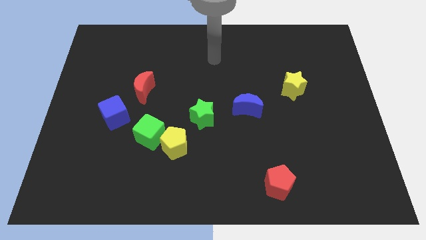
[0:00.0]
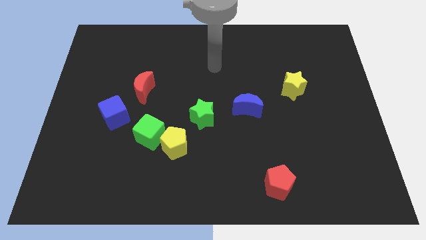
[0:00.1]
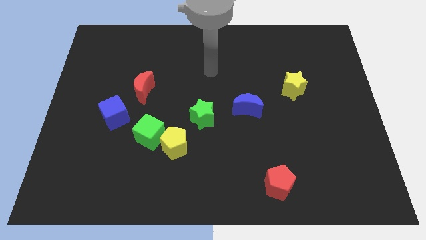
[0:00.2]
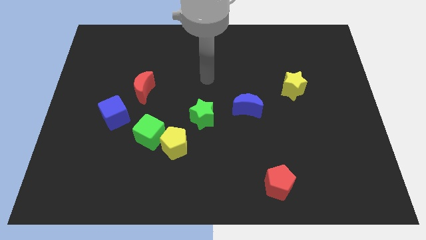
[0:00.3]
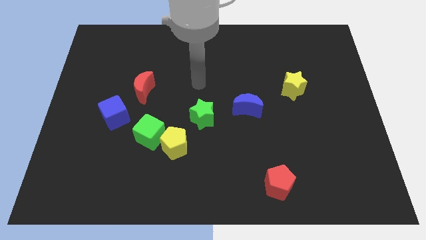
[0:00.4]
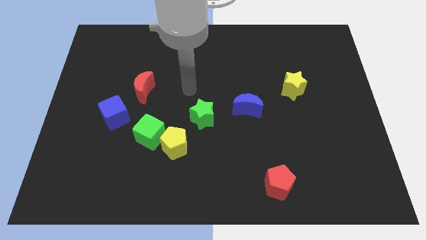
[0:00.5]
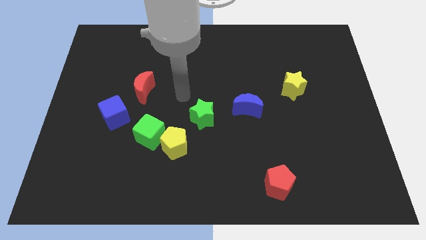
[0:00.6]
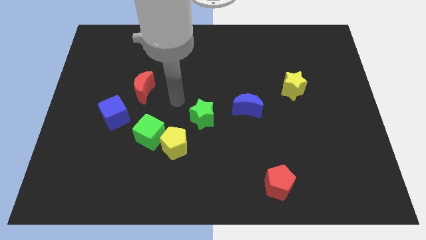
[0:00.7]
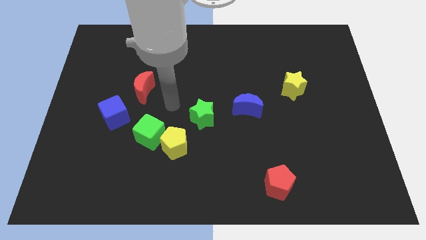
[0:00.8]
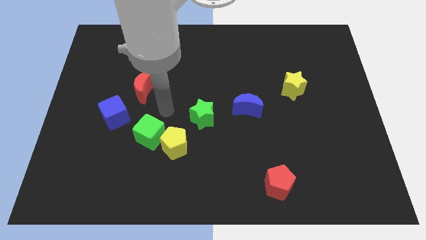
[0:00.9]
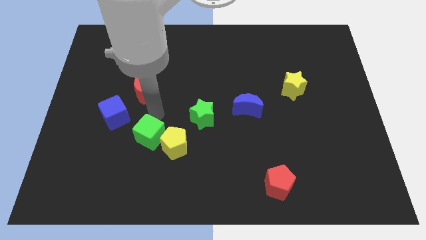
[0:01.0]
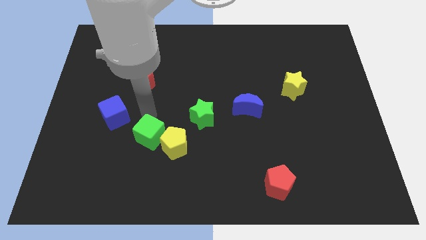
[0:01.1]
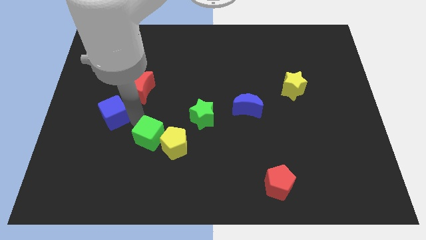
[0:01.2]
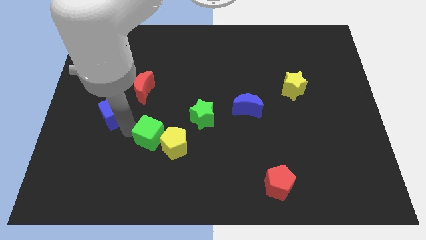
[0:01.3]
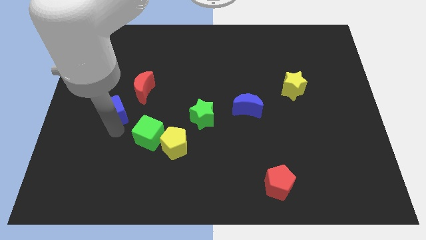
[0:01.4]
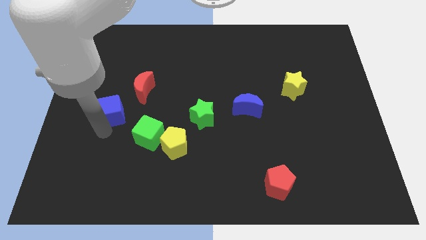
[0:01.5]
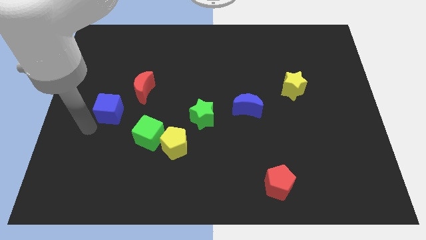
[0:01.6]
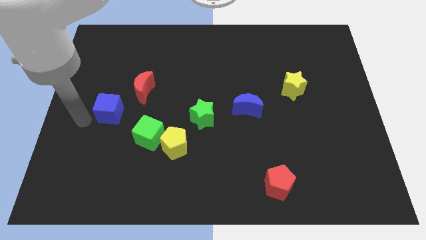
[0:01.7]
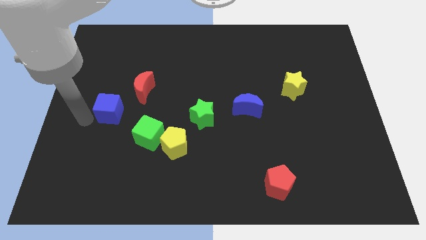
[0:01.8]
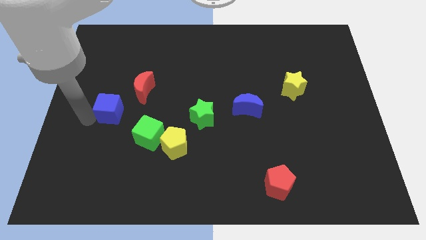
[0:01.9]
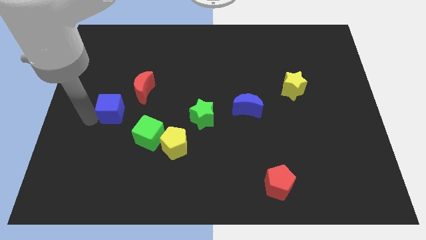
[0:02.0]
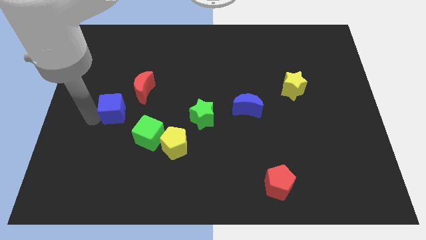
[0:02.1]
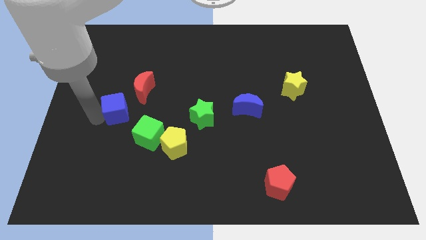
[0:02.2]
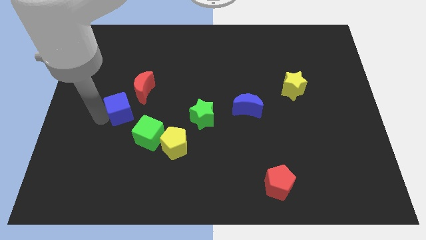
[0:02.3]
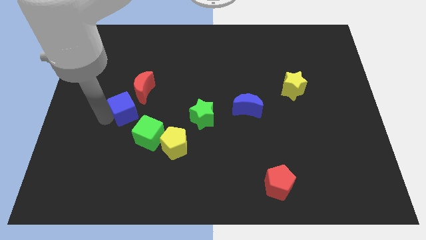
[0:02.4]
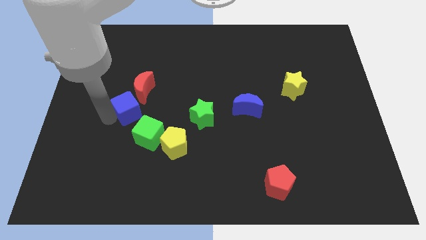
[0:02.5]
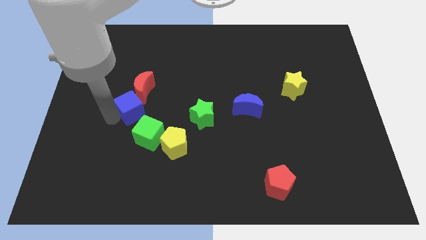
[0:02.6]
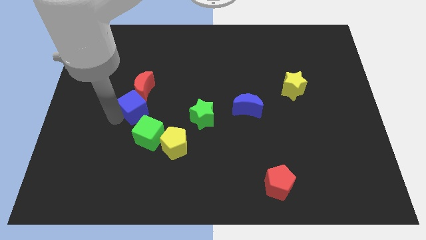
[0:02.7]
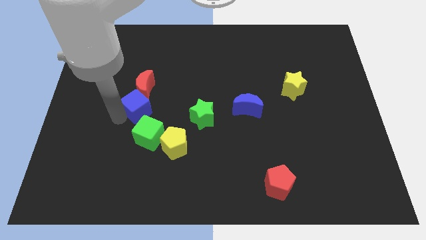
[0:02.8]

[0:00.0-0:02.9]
move the blue cube next to the red moon

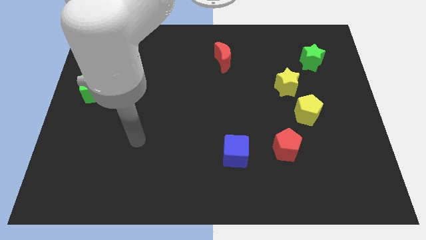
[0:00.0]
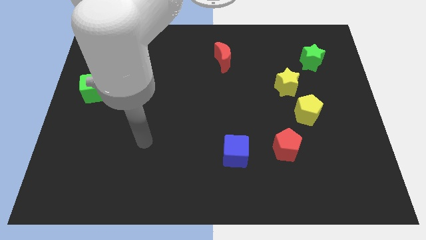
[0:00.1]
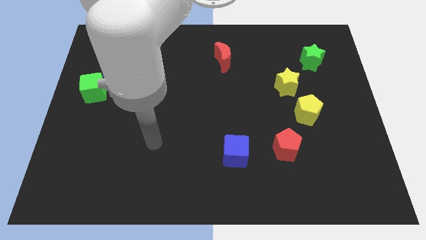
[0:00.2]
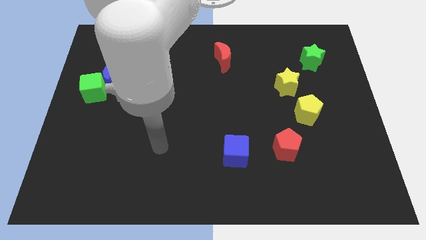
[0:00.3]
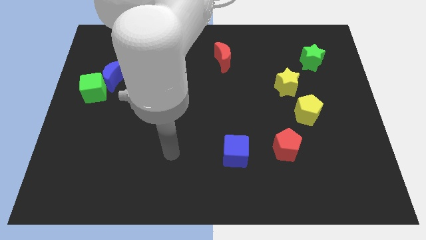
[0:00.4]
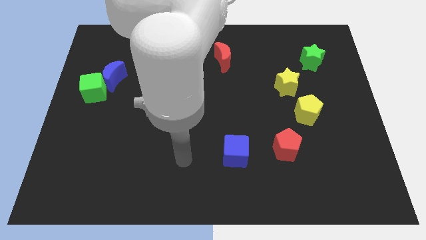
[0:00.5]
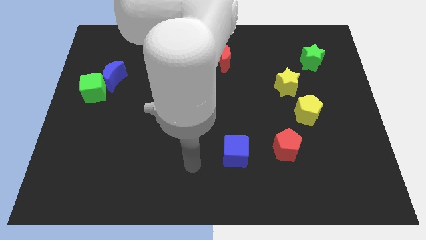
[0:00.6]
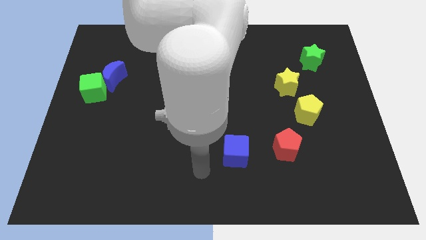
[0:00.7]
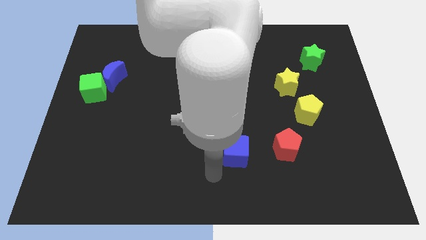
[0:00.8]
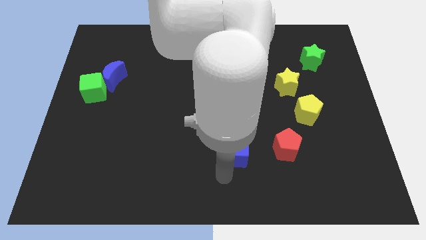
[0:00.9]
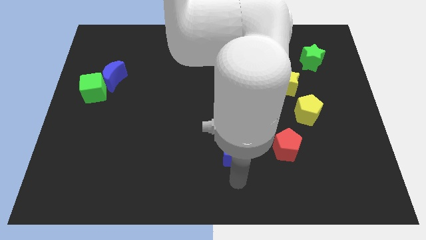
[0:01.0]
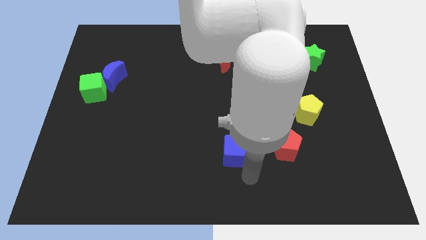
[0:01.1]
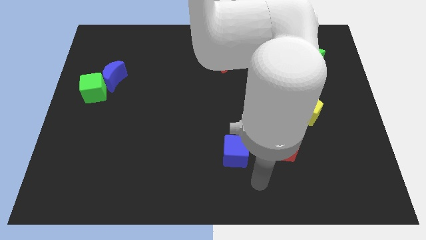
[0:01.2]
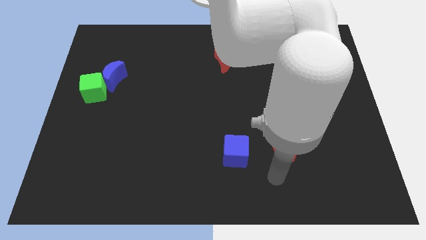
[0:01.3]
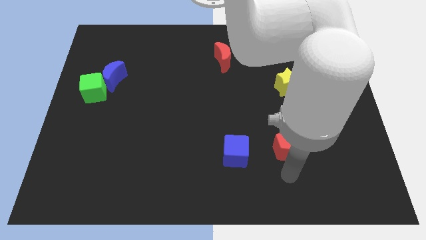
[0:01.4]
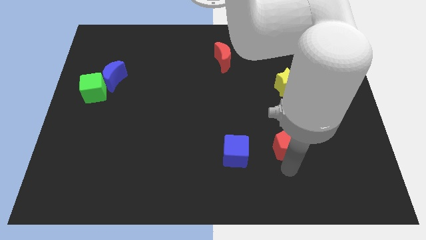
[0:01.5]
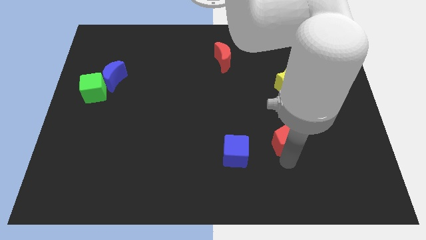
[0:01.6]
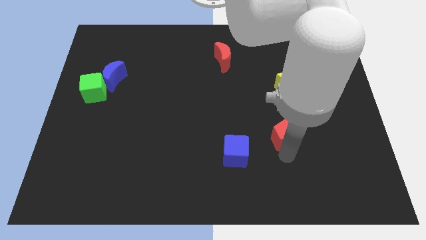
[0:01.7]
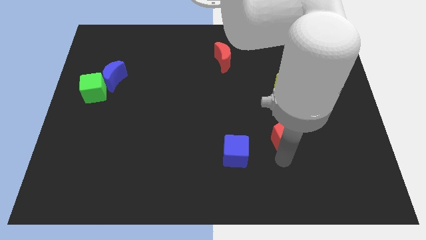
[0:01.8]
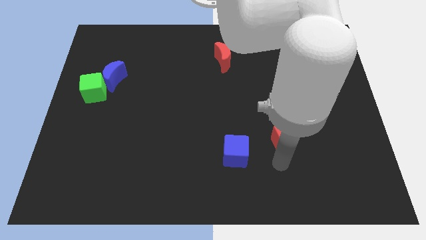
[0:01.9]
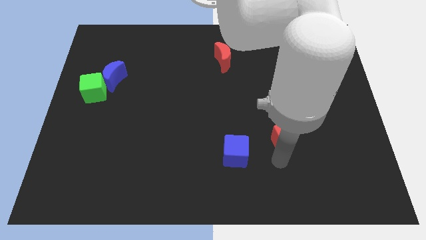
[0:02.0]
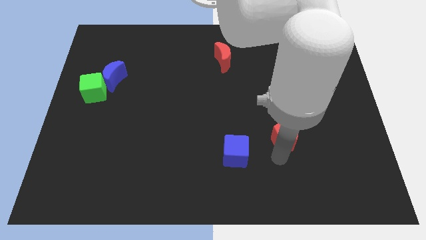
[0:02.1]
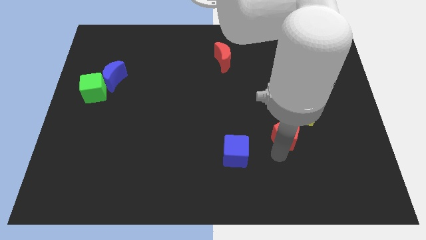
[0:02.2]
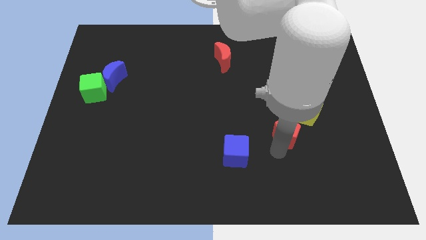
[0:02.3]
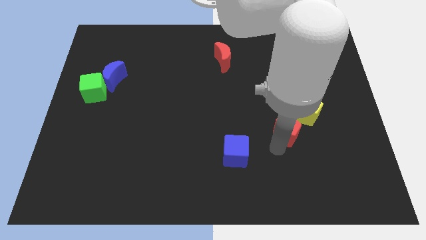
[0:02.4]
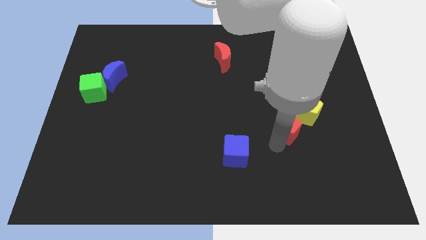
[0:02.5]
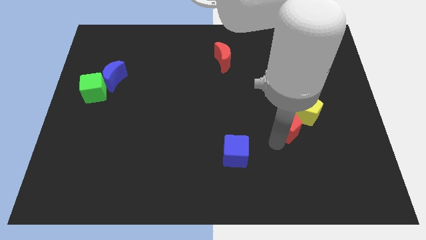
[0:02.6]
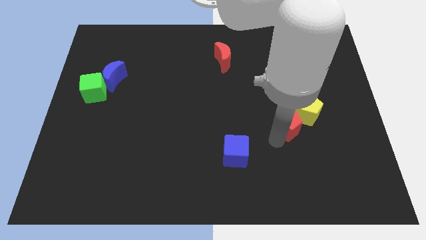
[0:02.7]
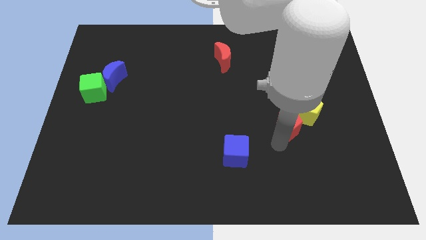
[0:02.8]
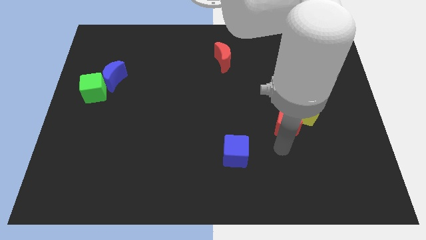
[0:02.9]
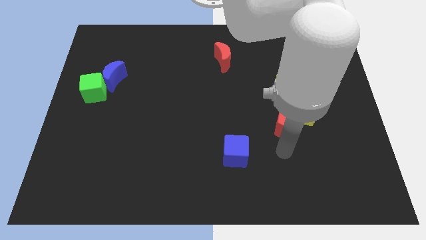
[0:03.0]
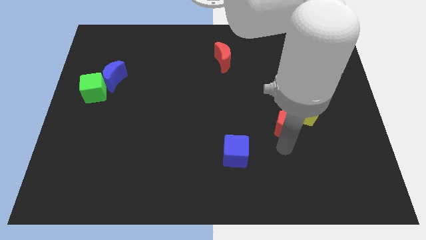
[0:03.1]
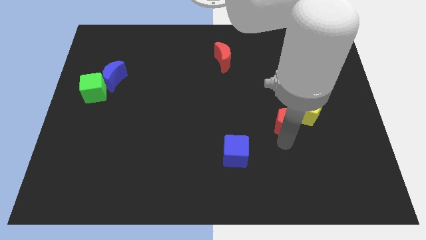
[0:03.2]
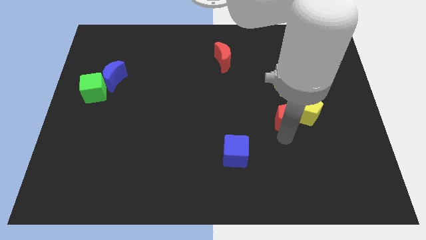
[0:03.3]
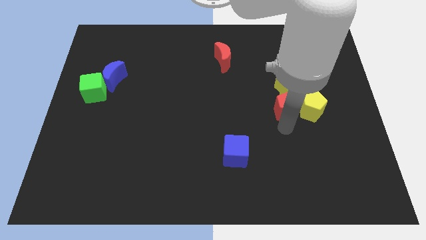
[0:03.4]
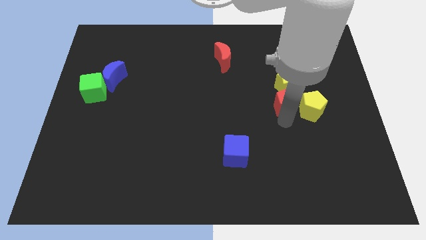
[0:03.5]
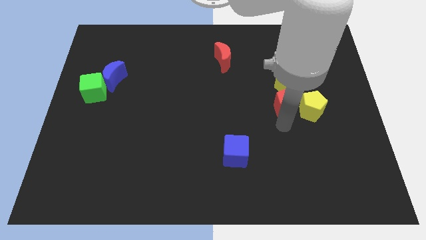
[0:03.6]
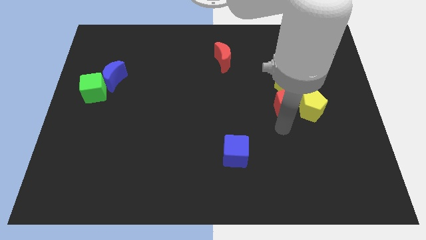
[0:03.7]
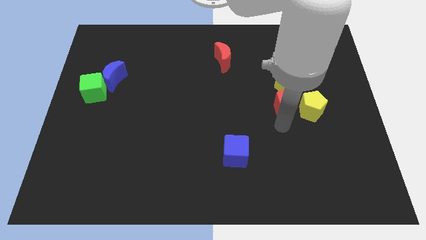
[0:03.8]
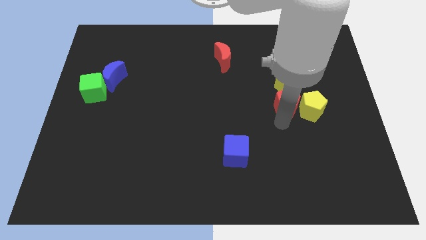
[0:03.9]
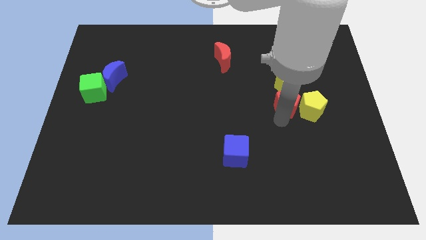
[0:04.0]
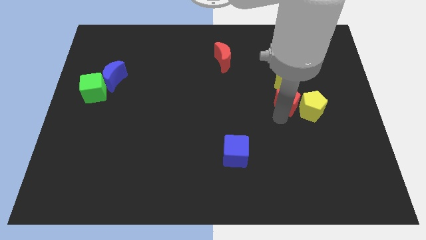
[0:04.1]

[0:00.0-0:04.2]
put the red pentagon next to the yellow star

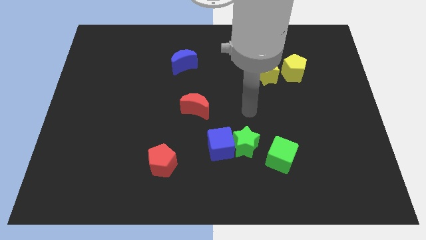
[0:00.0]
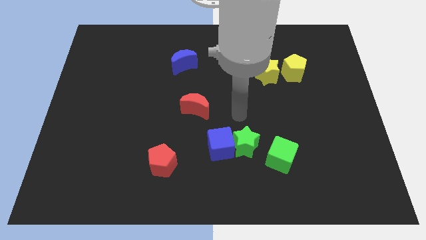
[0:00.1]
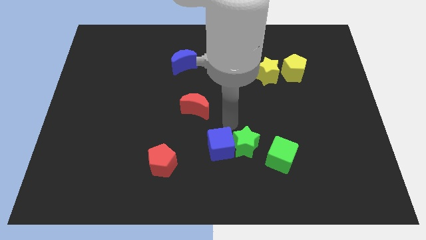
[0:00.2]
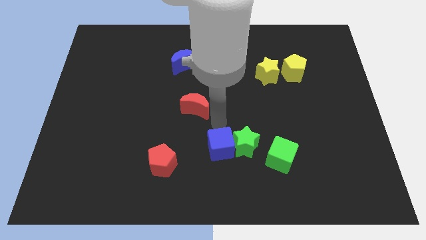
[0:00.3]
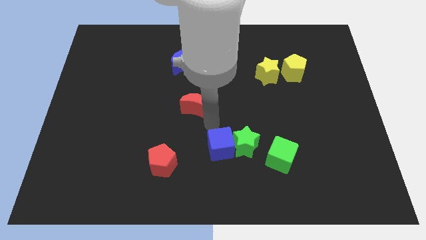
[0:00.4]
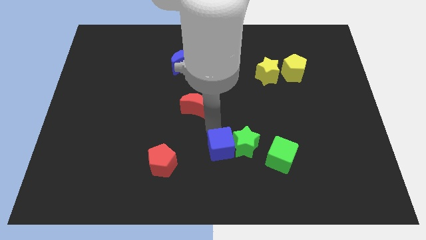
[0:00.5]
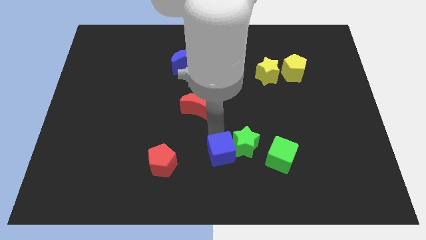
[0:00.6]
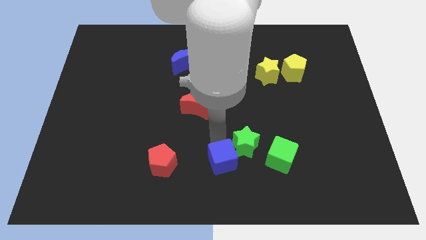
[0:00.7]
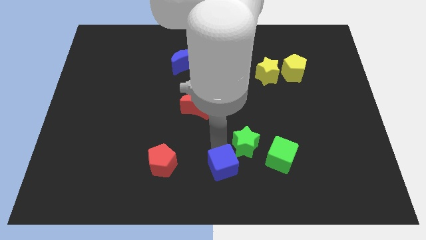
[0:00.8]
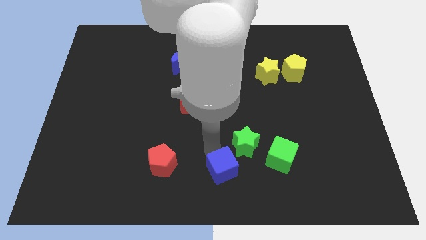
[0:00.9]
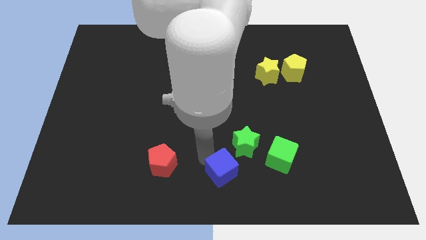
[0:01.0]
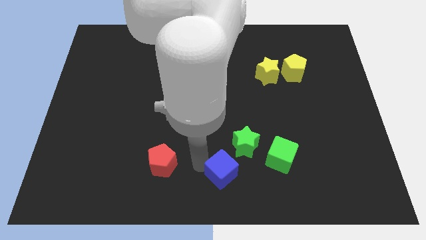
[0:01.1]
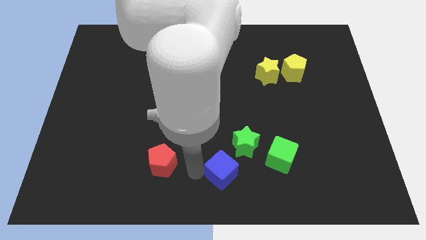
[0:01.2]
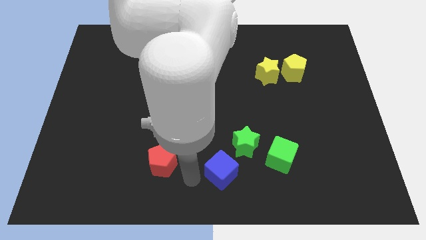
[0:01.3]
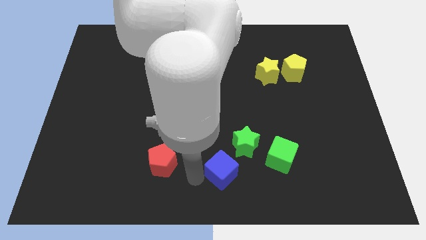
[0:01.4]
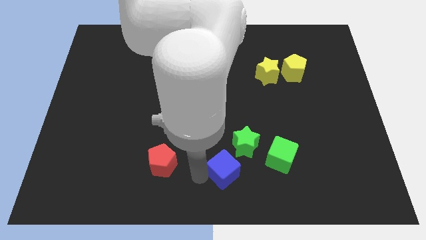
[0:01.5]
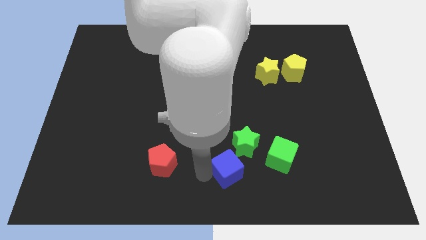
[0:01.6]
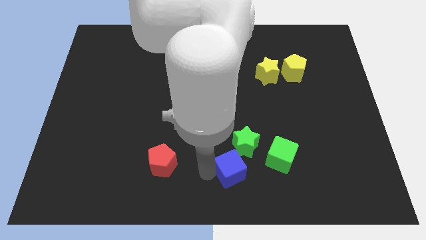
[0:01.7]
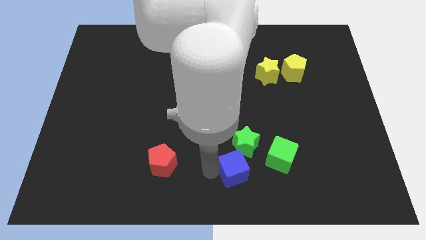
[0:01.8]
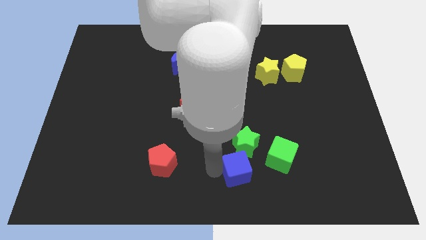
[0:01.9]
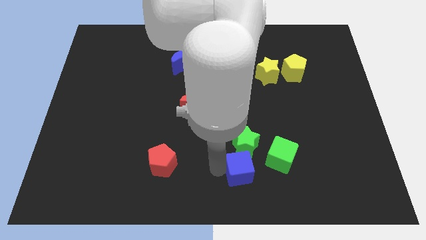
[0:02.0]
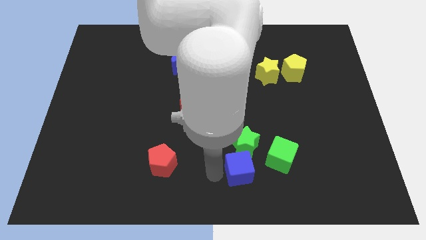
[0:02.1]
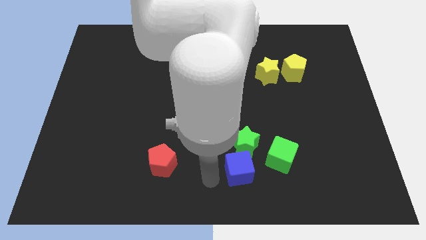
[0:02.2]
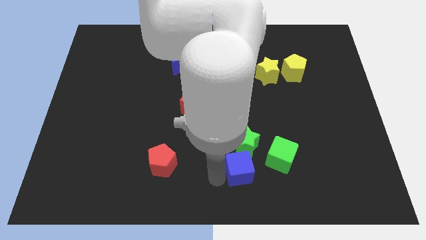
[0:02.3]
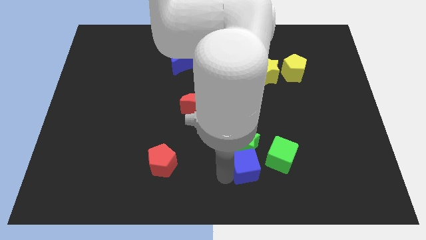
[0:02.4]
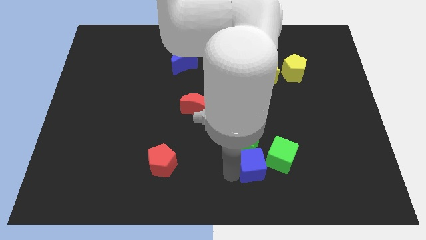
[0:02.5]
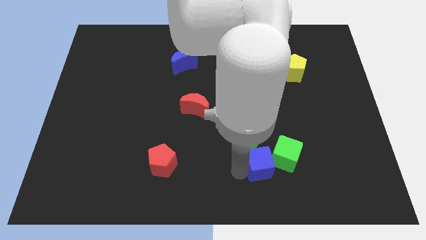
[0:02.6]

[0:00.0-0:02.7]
push the blue cube towards the green cube
